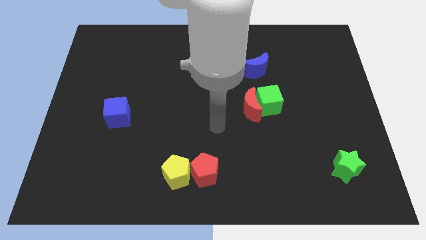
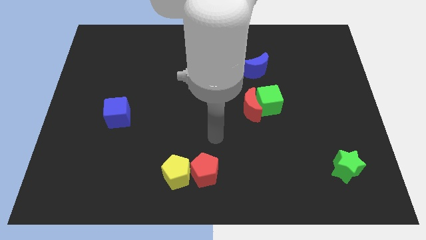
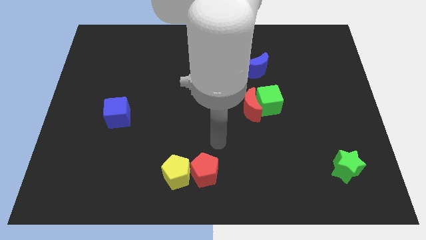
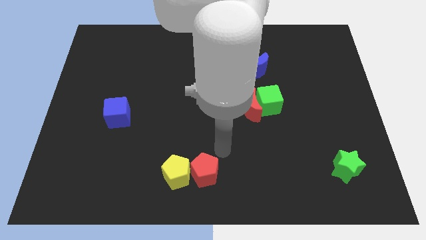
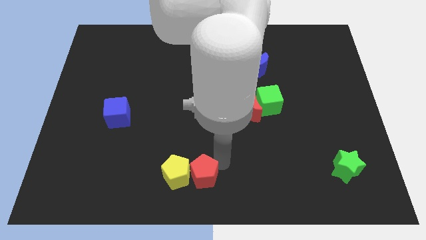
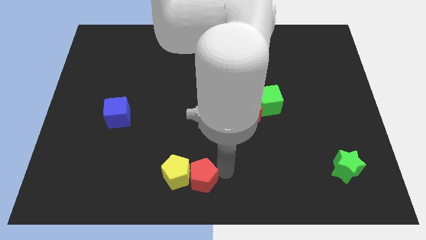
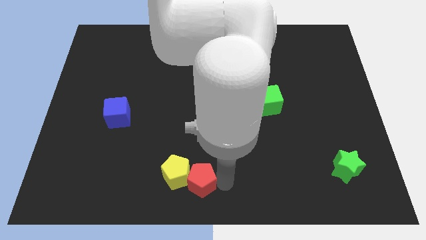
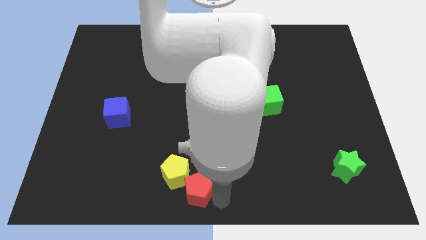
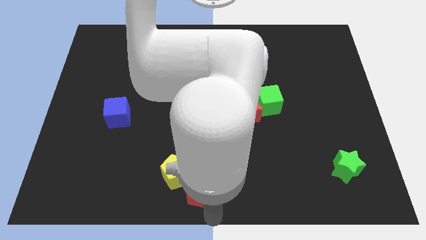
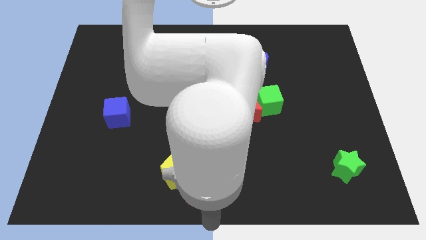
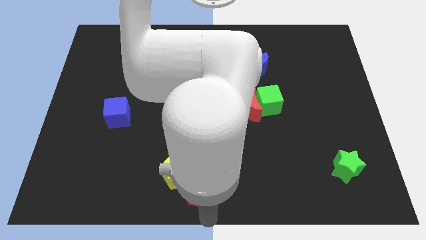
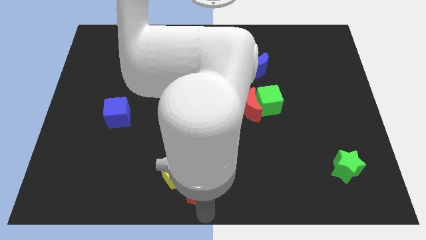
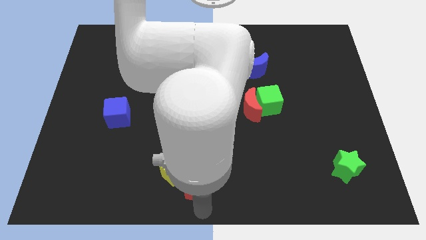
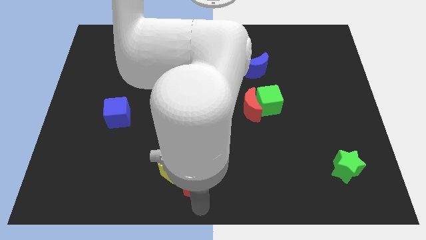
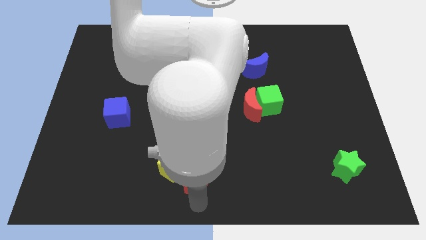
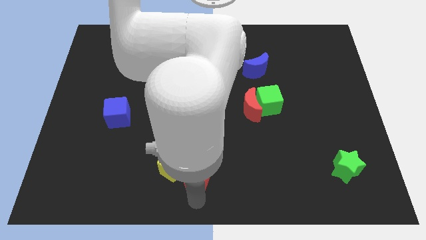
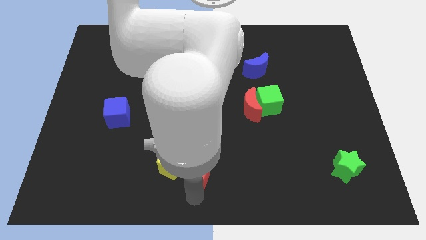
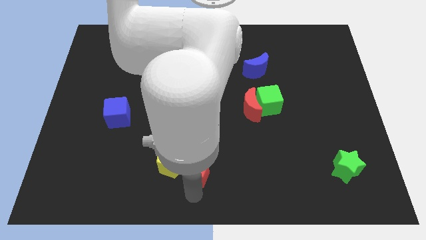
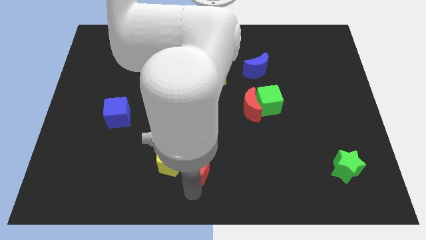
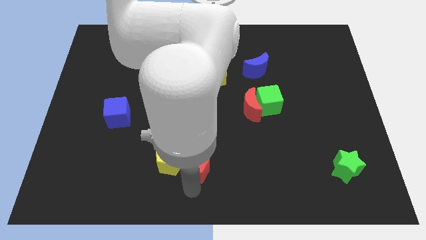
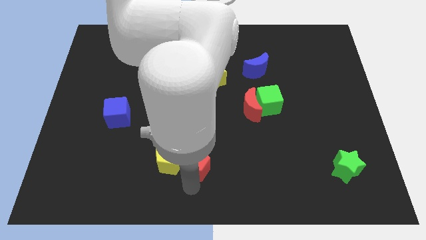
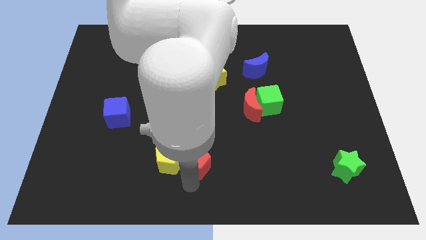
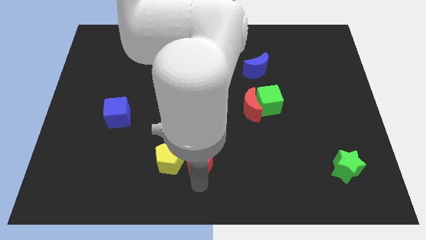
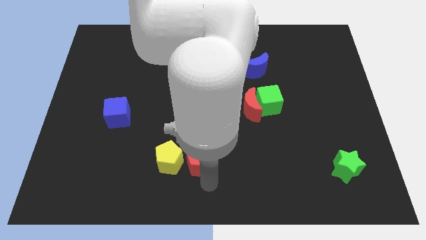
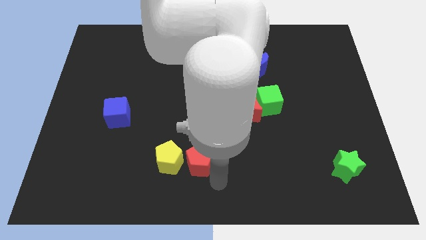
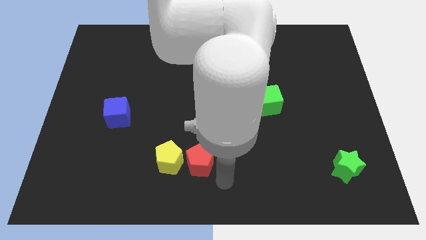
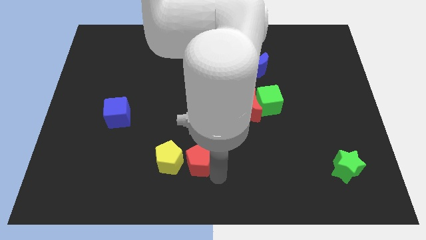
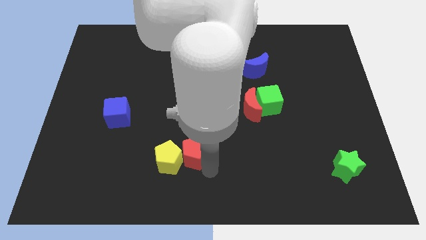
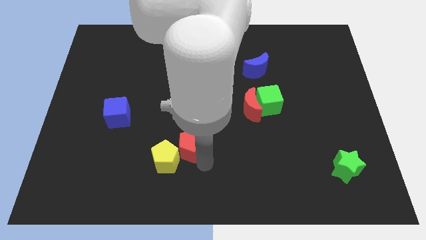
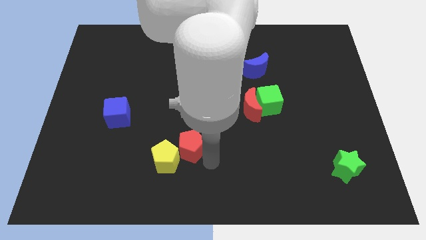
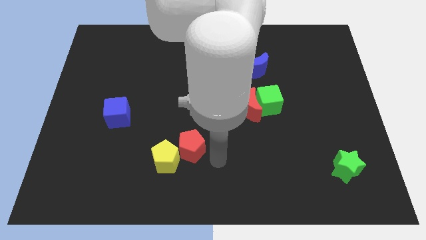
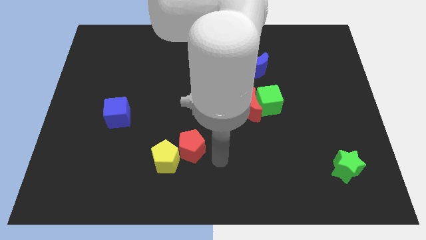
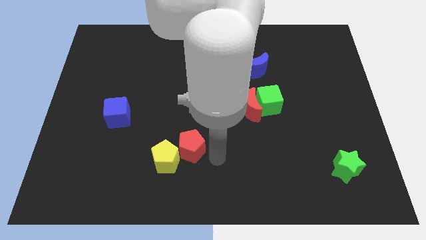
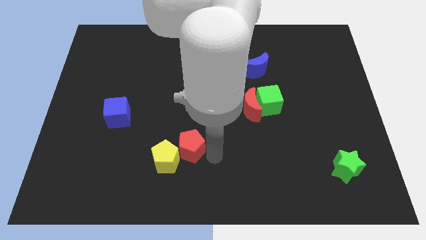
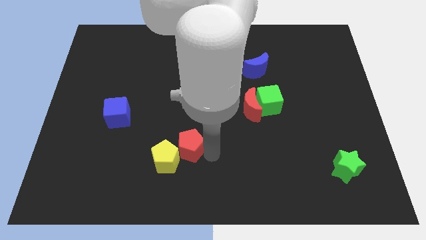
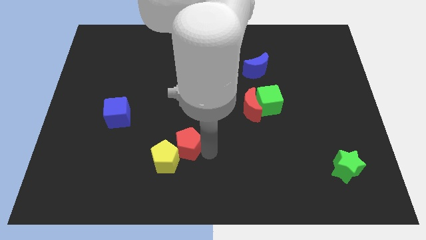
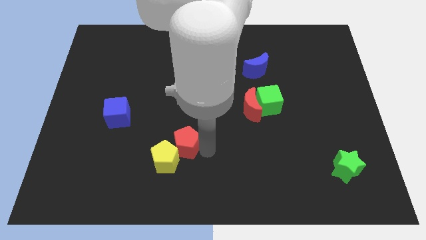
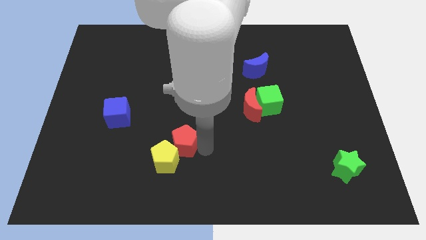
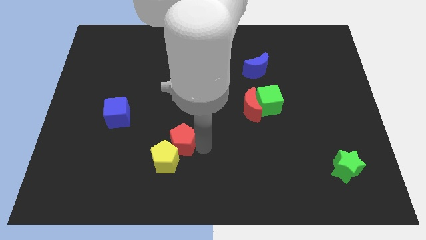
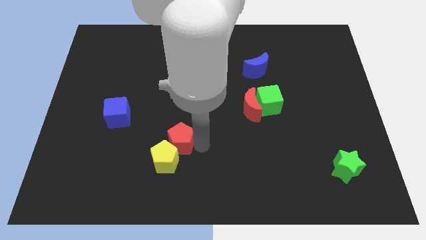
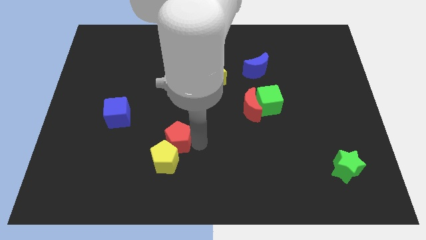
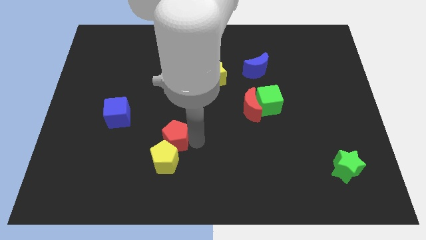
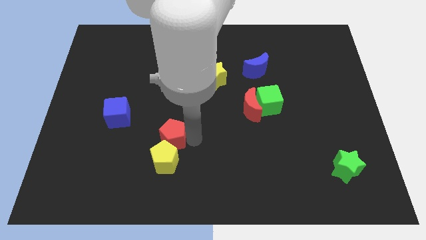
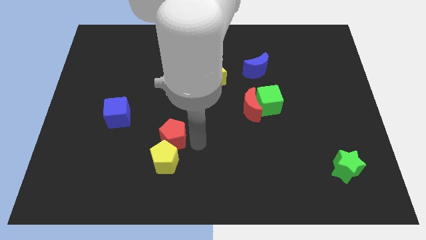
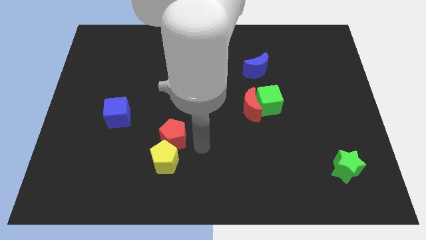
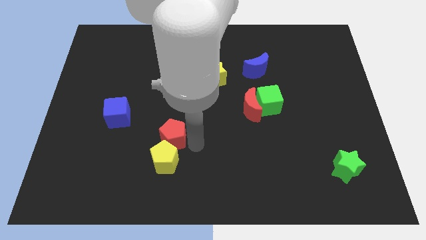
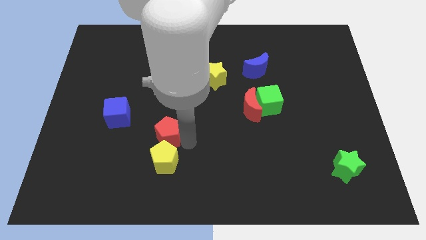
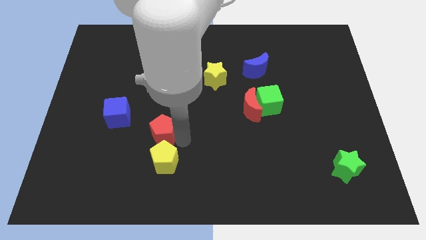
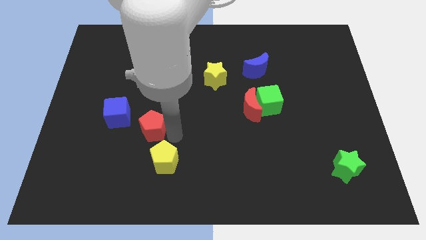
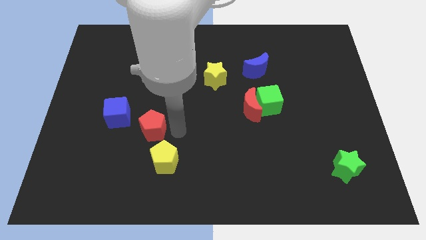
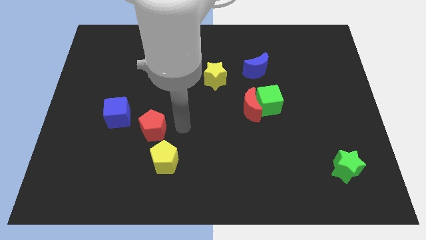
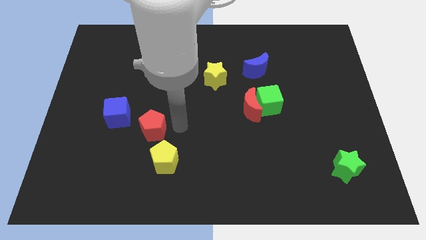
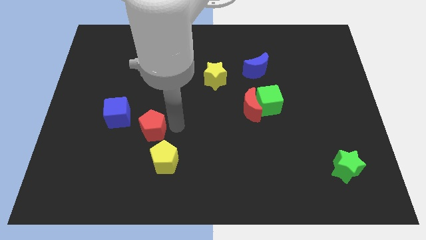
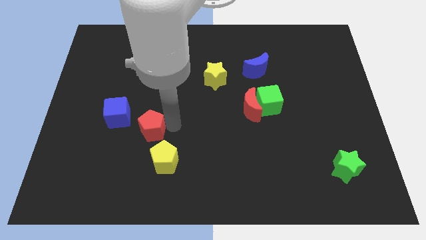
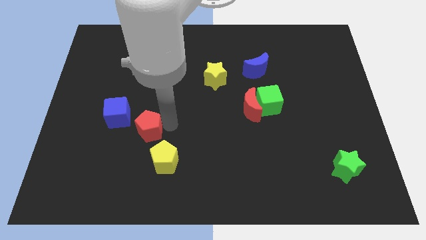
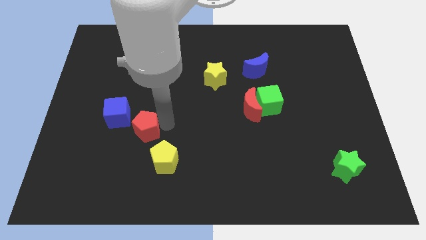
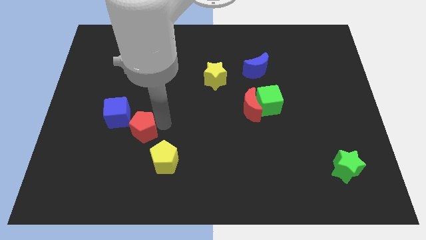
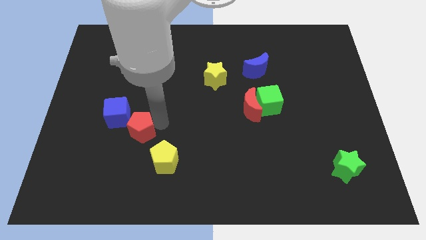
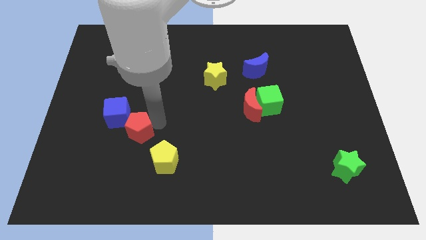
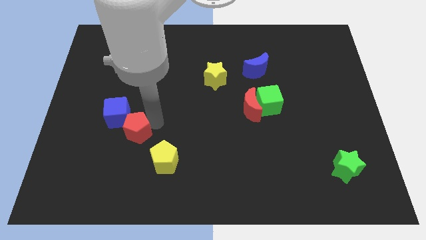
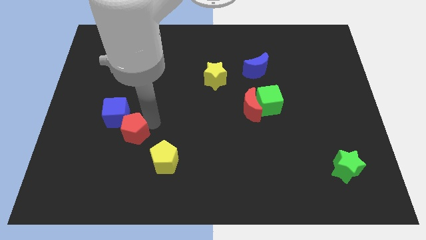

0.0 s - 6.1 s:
move the red pentagon next to the blue cube

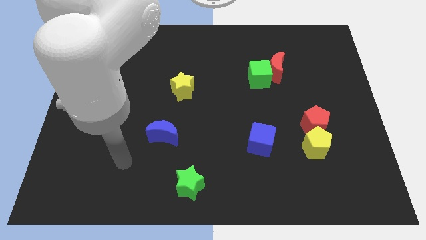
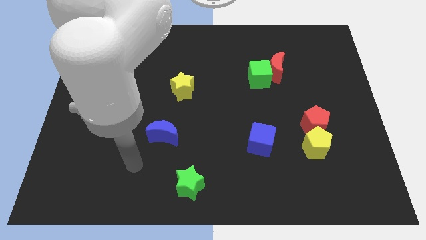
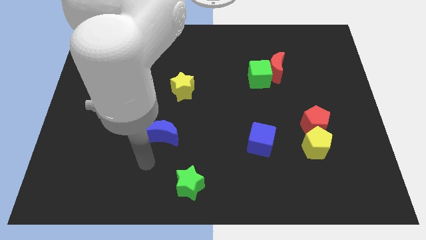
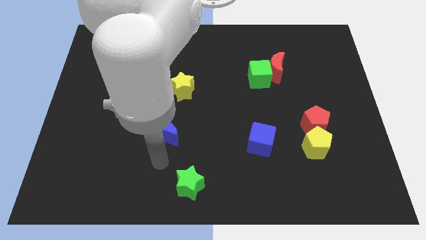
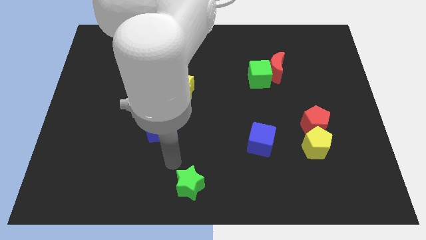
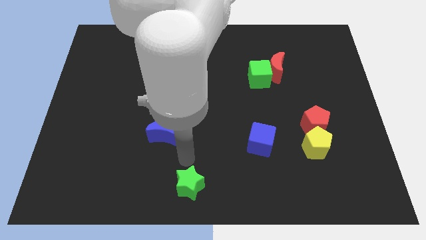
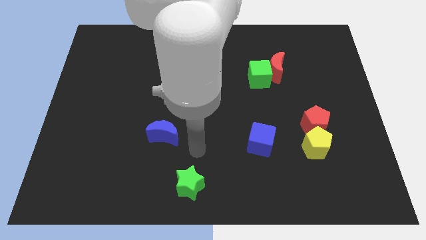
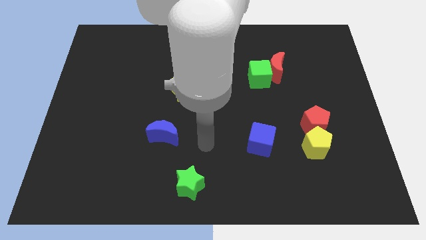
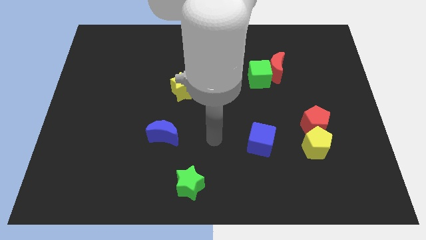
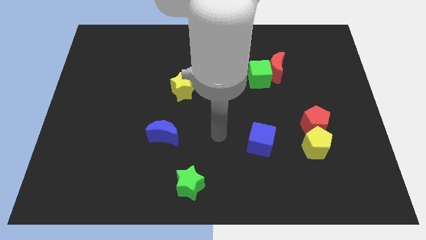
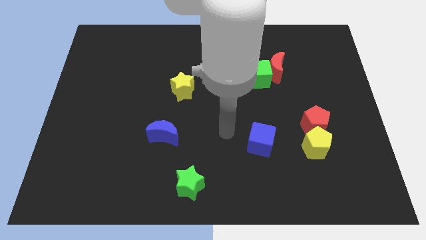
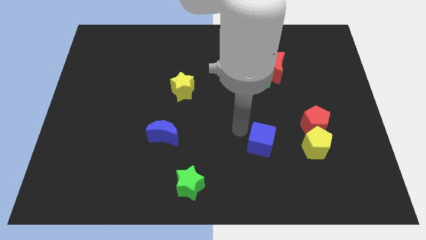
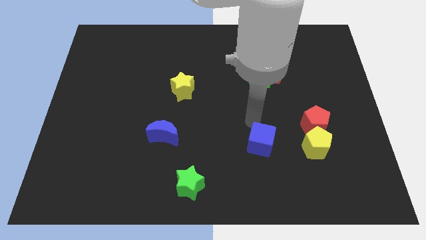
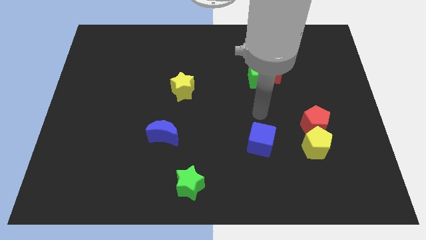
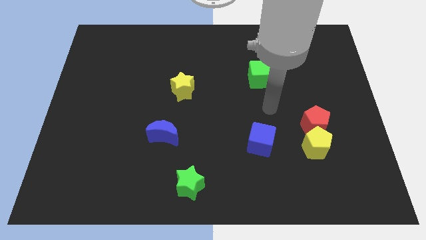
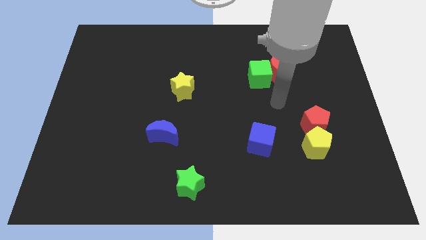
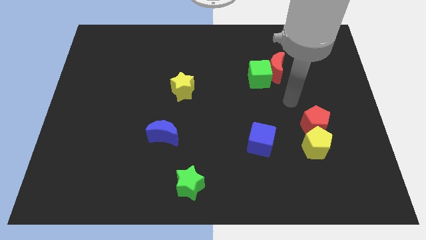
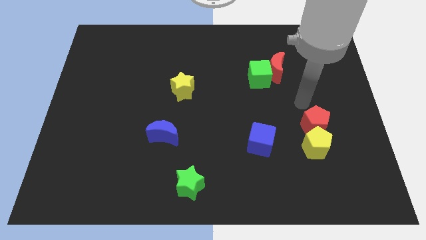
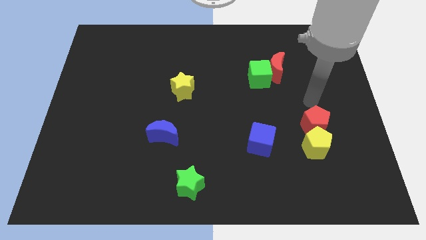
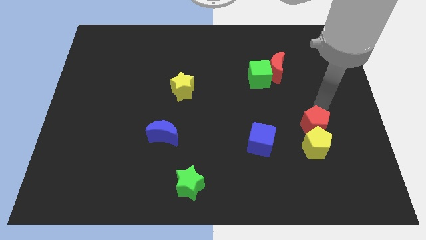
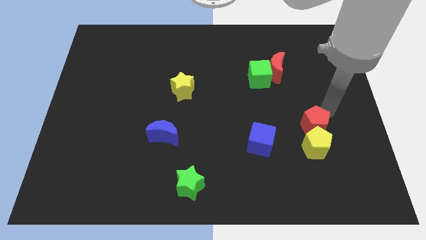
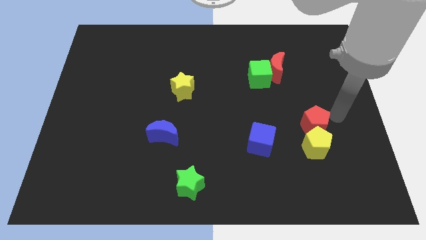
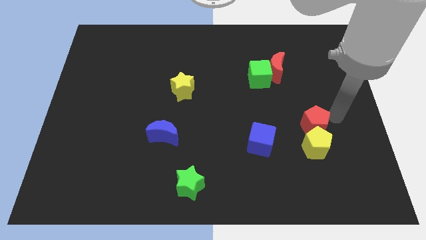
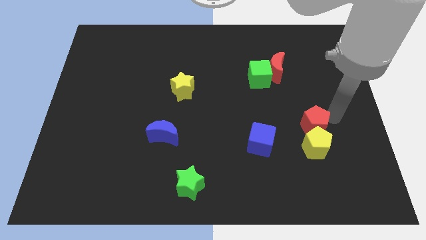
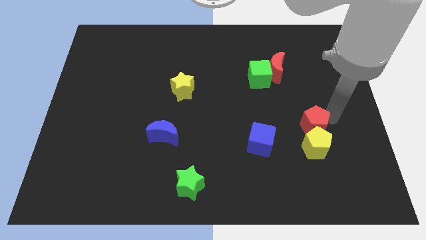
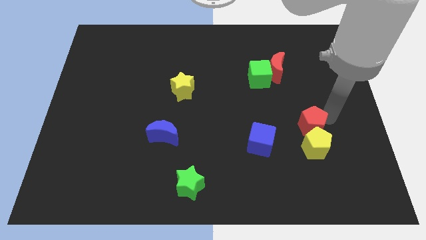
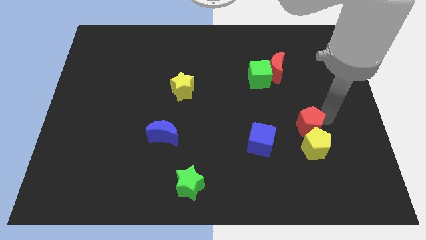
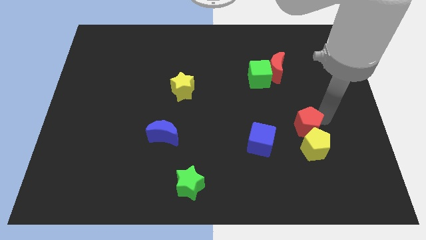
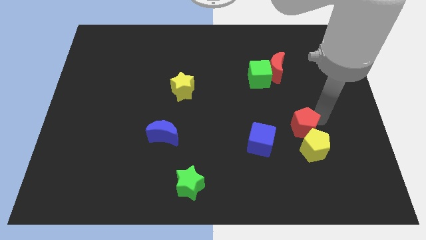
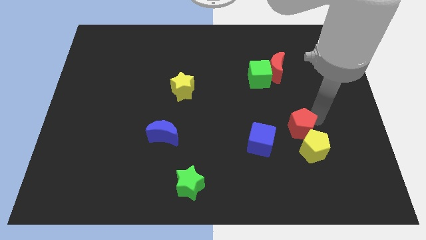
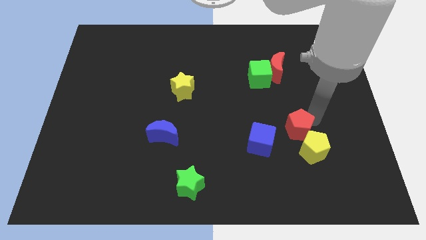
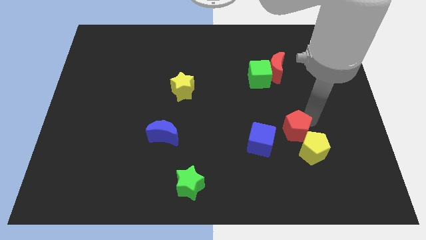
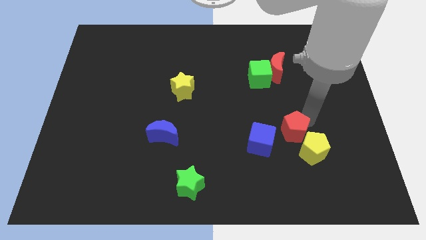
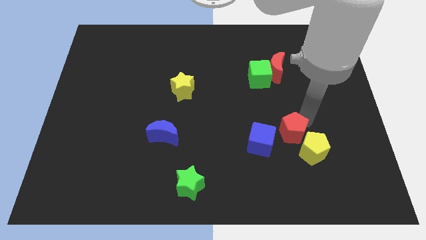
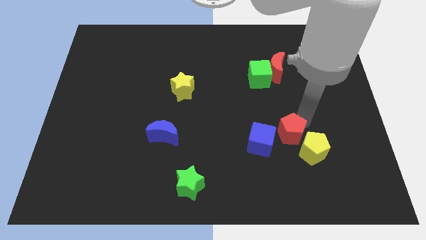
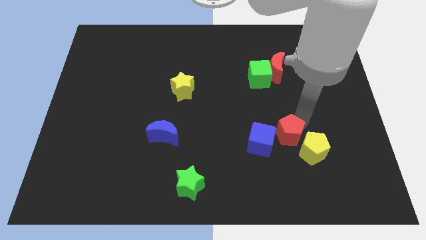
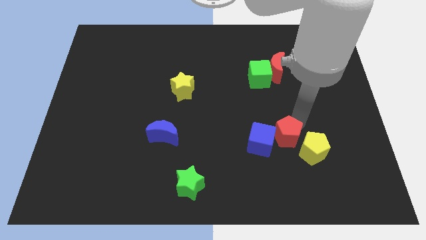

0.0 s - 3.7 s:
put the red pentagon next to the blue cube
